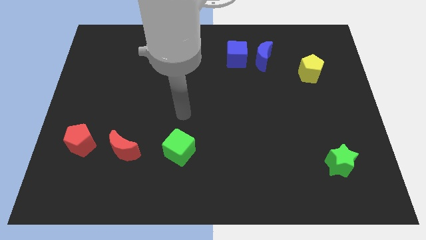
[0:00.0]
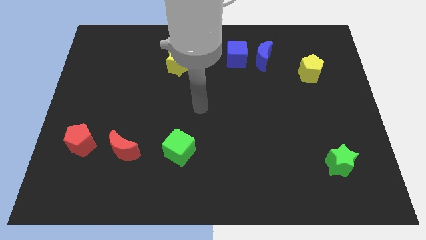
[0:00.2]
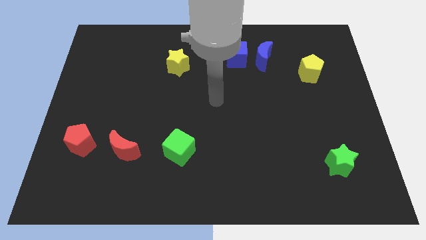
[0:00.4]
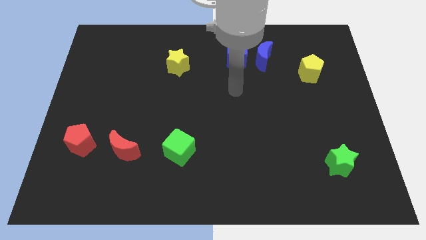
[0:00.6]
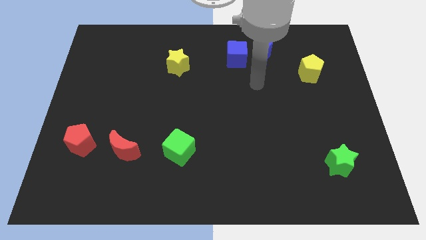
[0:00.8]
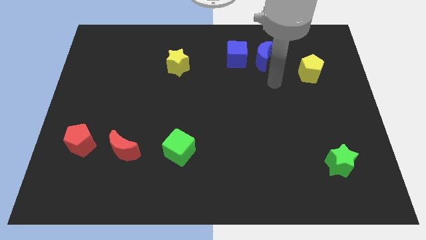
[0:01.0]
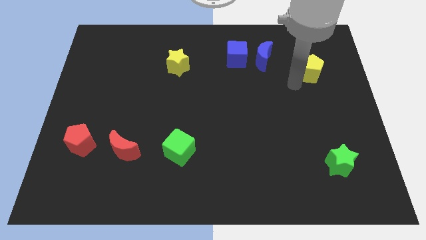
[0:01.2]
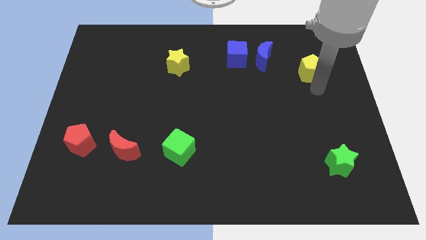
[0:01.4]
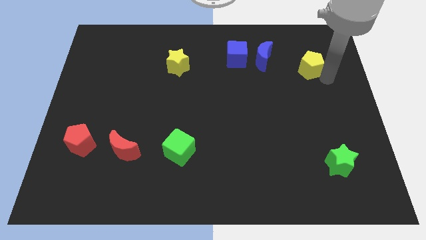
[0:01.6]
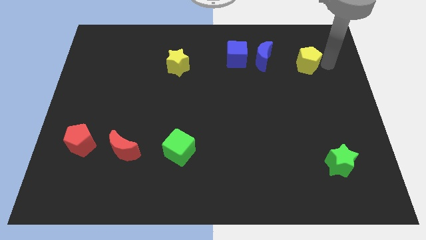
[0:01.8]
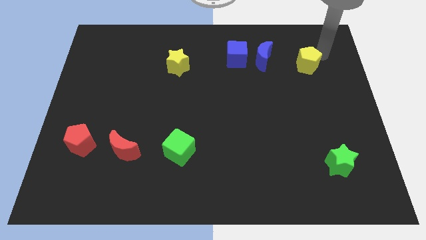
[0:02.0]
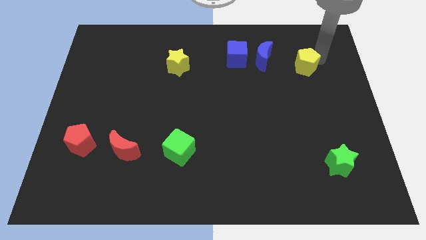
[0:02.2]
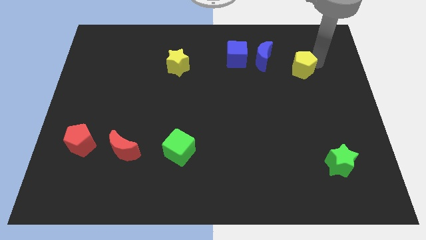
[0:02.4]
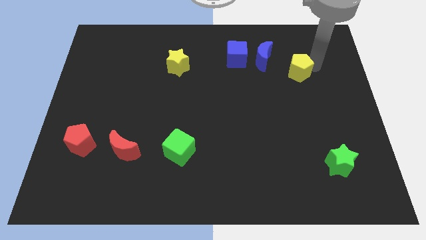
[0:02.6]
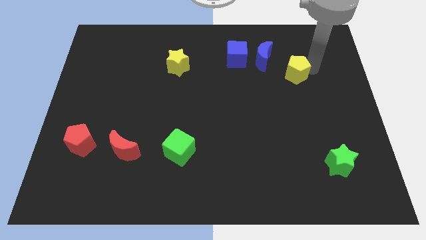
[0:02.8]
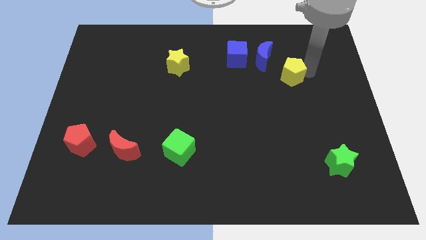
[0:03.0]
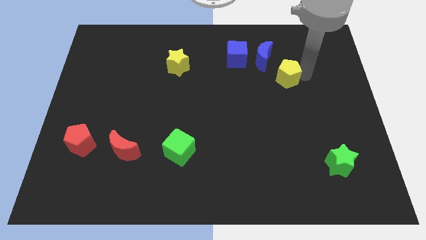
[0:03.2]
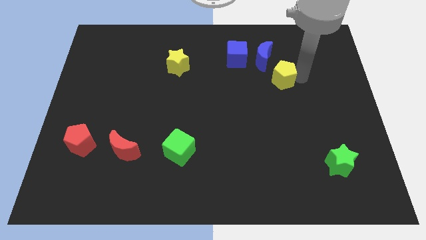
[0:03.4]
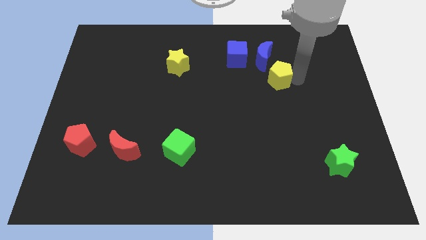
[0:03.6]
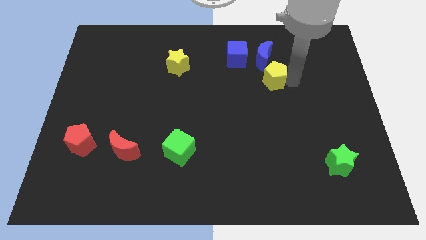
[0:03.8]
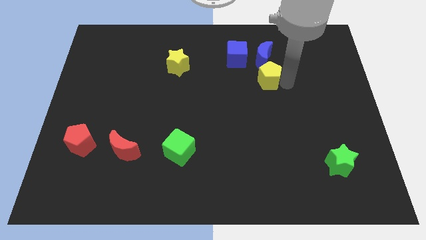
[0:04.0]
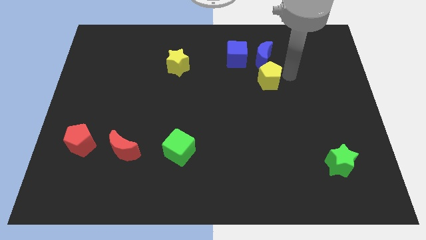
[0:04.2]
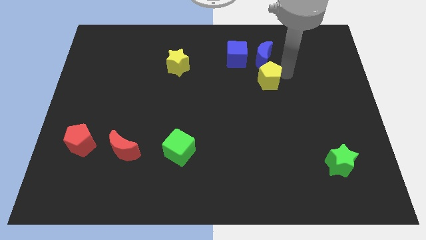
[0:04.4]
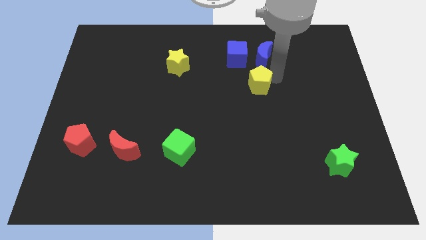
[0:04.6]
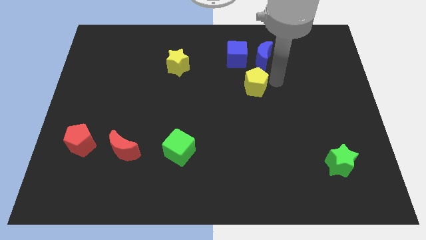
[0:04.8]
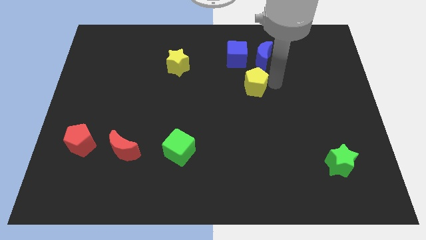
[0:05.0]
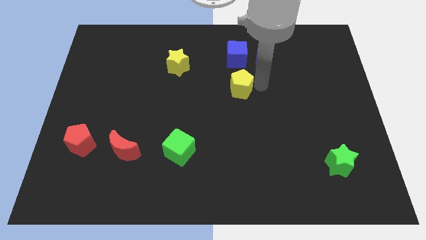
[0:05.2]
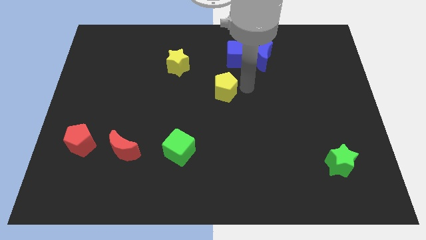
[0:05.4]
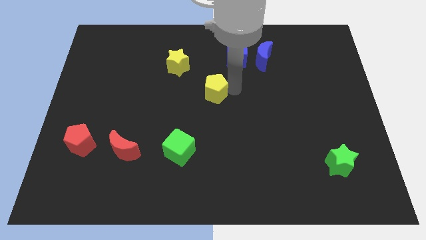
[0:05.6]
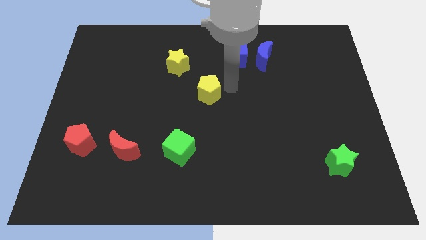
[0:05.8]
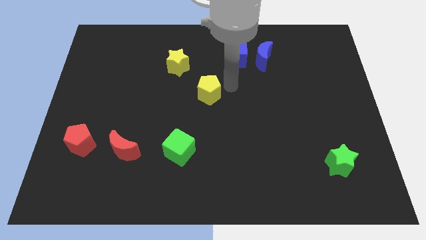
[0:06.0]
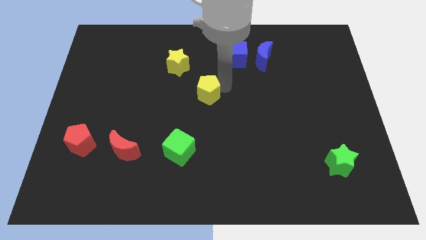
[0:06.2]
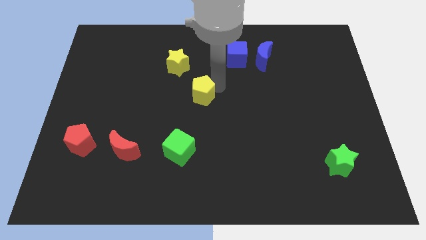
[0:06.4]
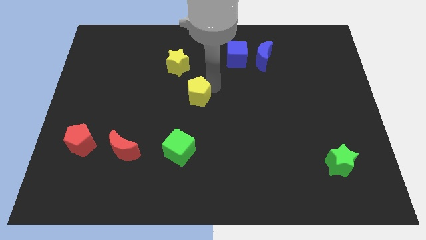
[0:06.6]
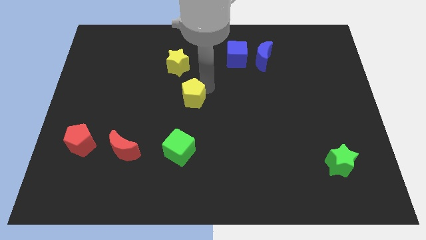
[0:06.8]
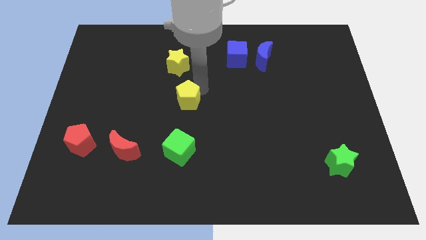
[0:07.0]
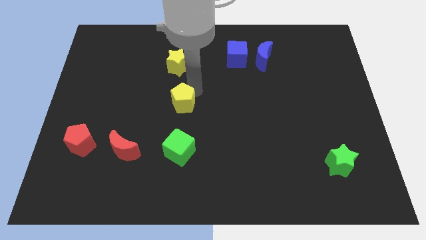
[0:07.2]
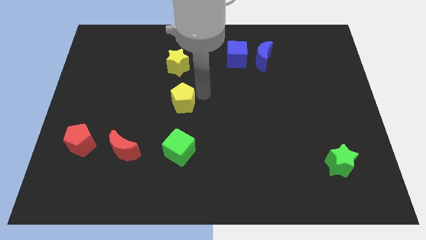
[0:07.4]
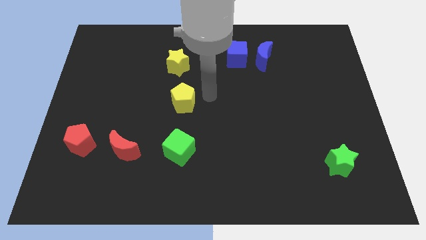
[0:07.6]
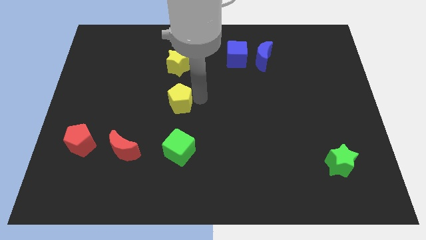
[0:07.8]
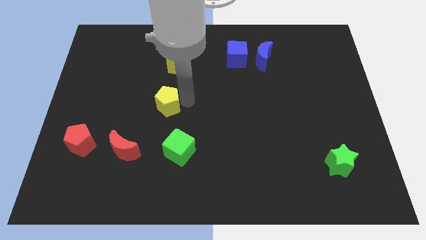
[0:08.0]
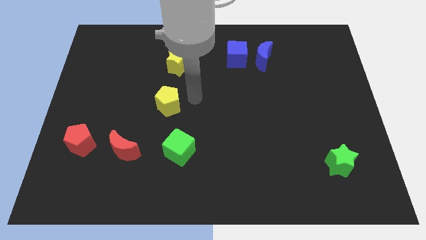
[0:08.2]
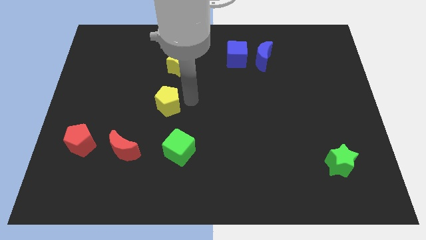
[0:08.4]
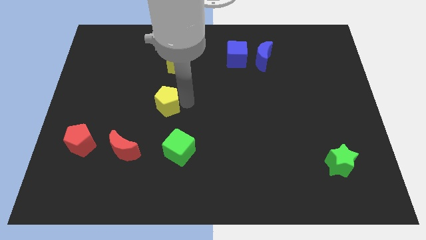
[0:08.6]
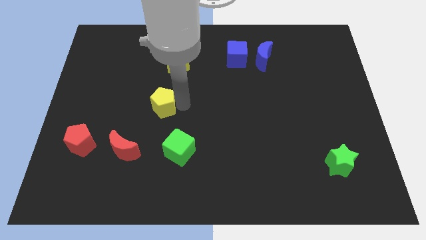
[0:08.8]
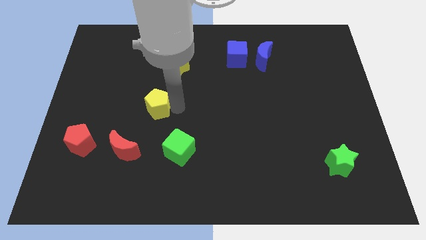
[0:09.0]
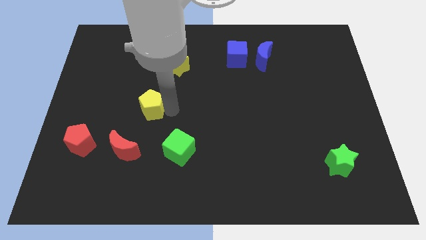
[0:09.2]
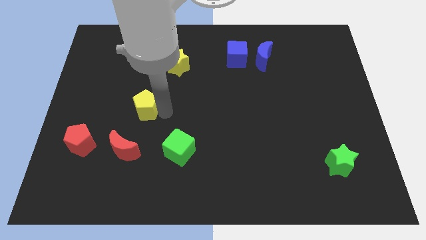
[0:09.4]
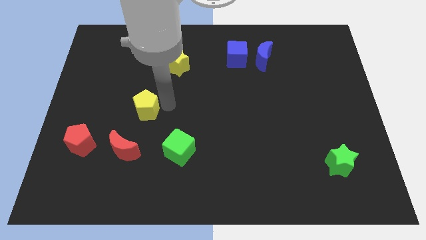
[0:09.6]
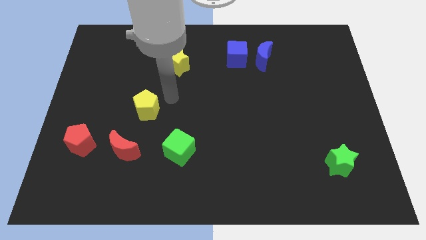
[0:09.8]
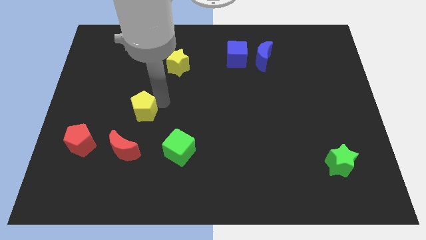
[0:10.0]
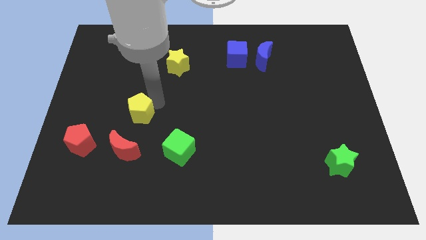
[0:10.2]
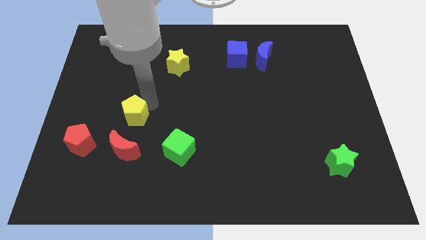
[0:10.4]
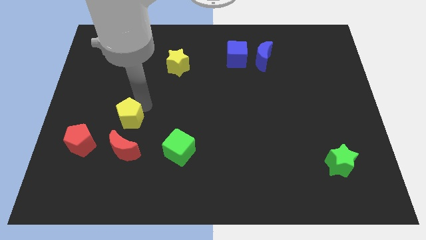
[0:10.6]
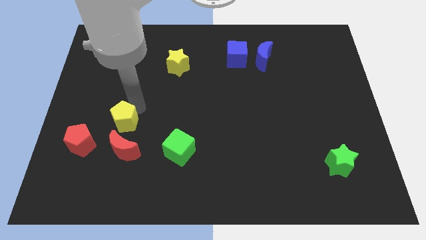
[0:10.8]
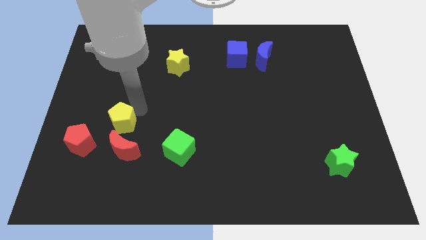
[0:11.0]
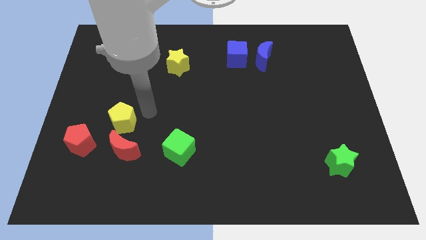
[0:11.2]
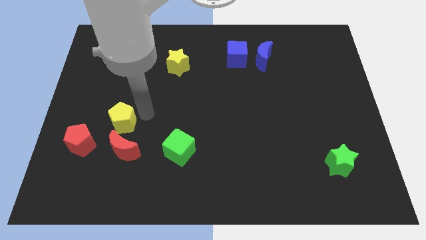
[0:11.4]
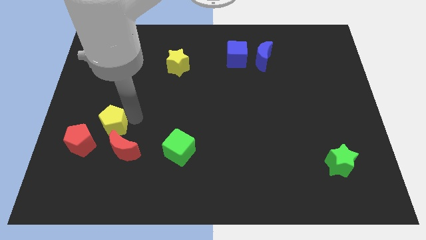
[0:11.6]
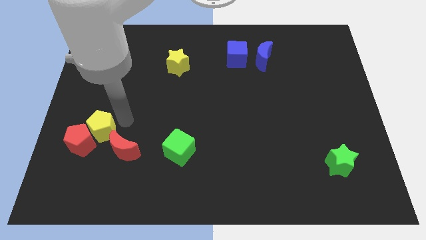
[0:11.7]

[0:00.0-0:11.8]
put the yellow pentagon next to the red pentagon

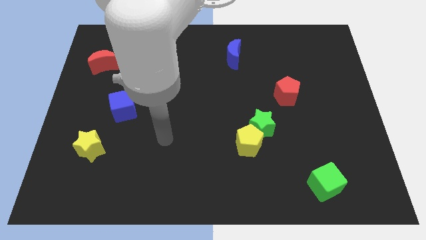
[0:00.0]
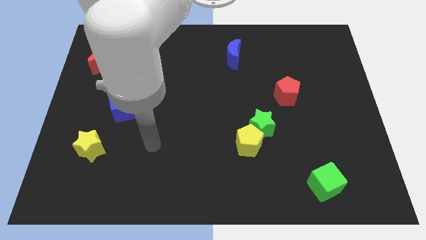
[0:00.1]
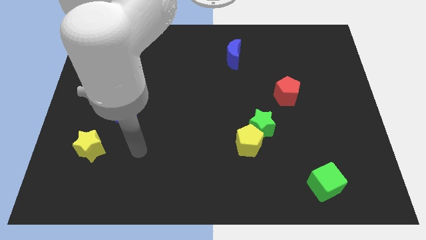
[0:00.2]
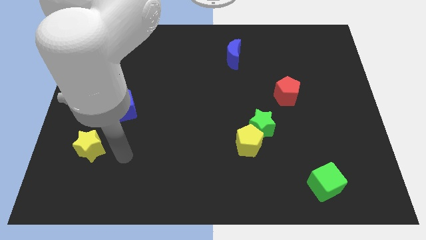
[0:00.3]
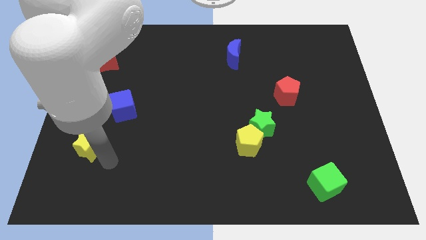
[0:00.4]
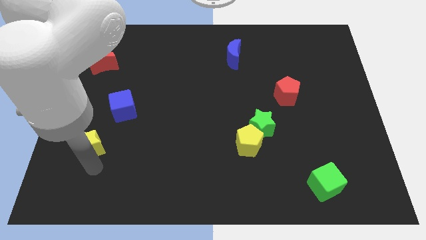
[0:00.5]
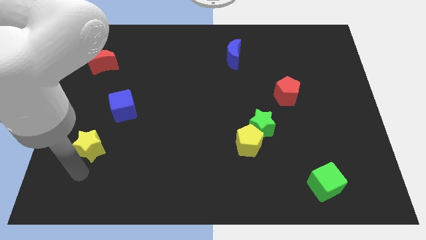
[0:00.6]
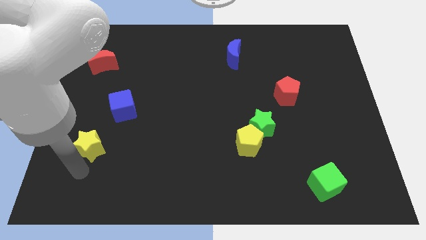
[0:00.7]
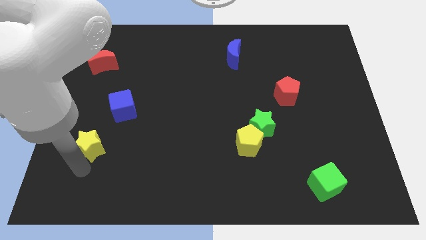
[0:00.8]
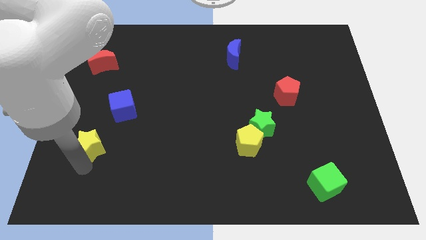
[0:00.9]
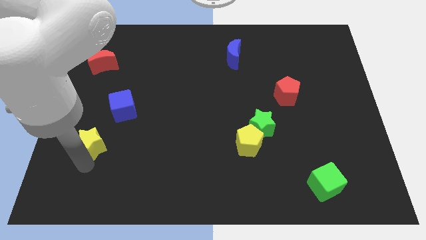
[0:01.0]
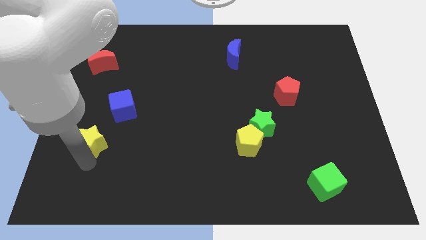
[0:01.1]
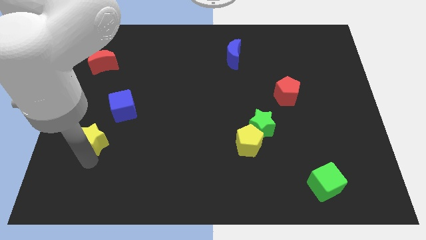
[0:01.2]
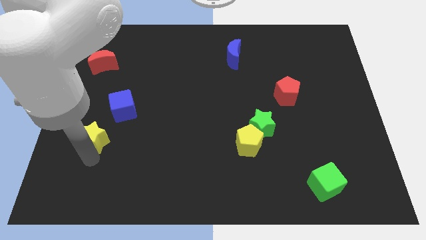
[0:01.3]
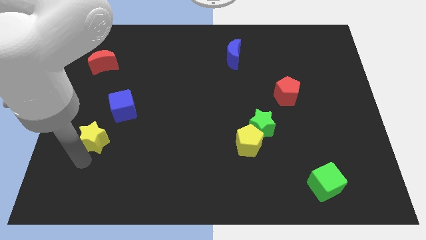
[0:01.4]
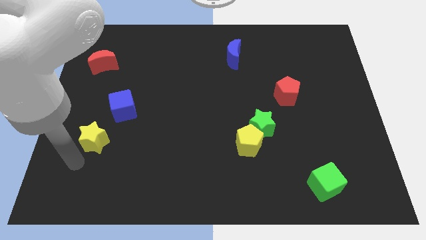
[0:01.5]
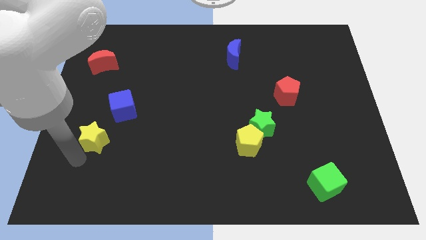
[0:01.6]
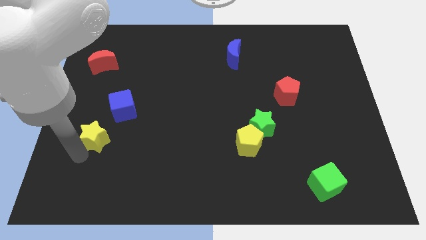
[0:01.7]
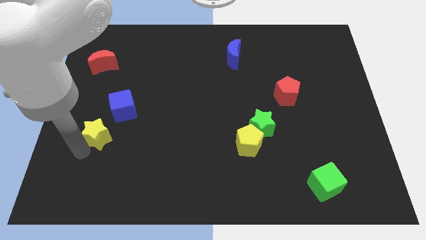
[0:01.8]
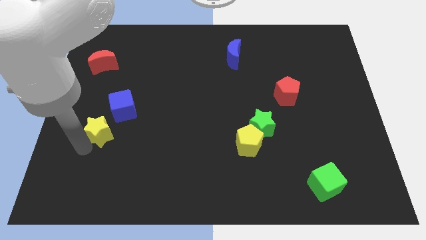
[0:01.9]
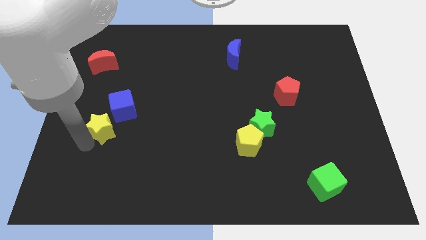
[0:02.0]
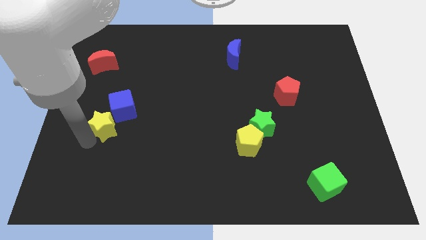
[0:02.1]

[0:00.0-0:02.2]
move the yellow star towards the blue cube
